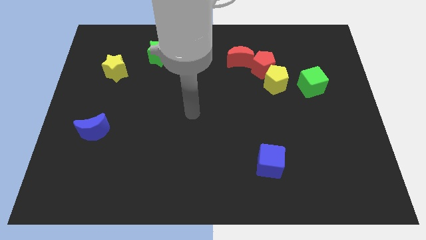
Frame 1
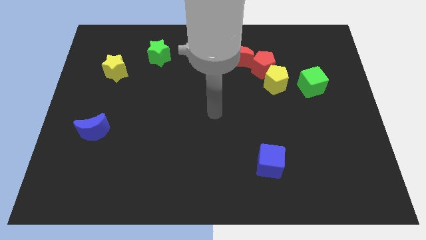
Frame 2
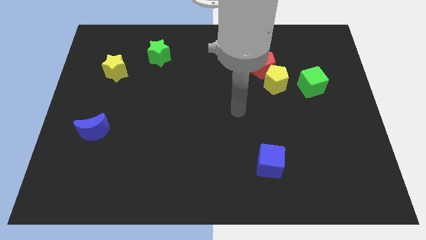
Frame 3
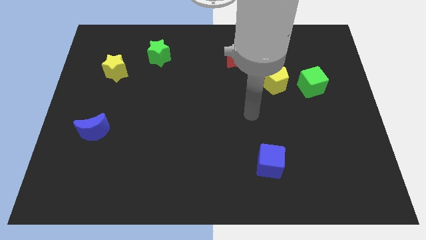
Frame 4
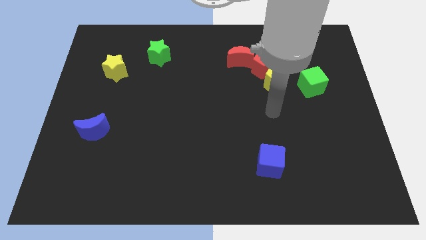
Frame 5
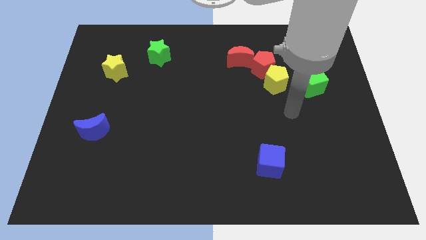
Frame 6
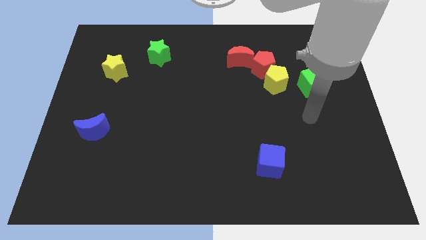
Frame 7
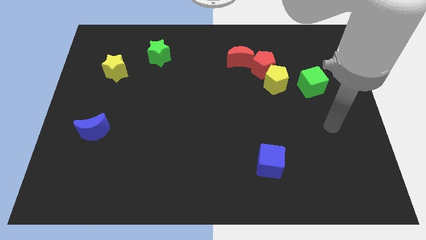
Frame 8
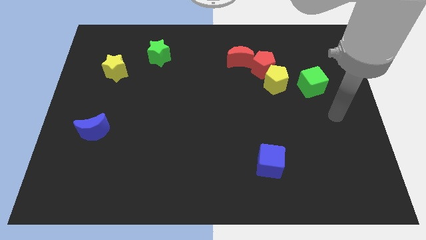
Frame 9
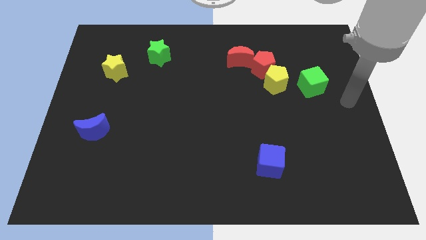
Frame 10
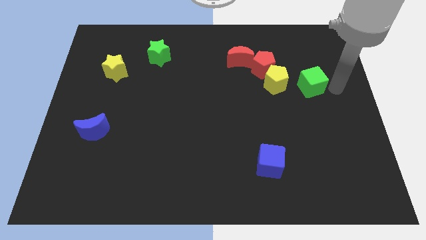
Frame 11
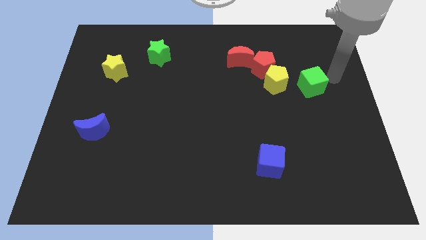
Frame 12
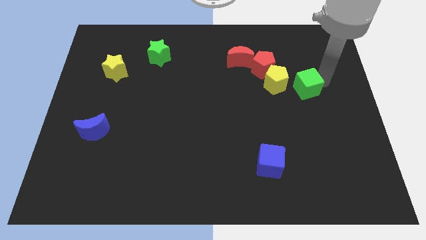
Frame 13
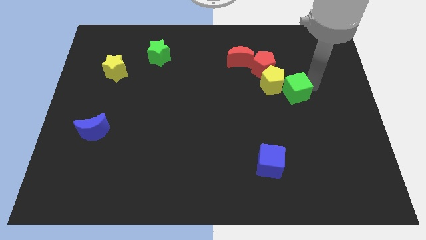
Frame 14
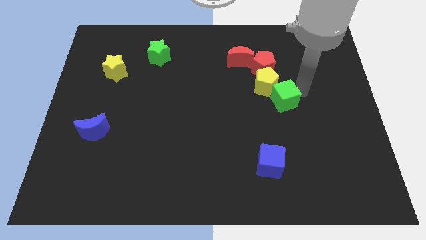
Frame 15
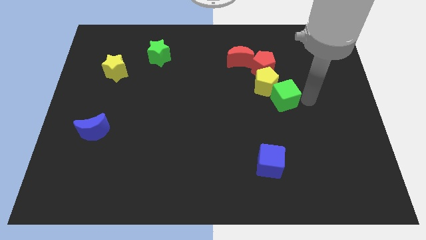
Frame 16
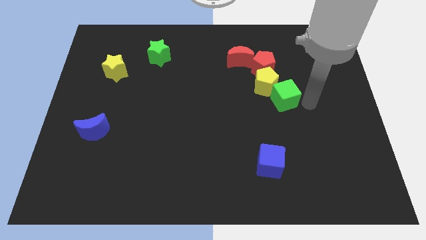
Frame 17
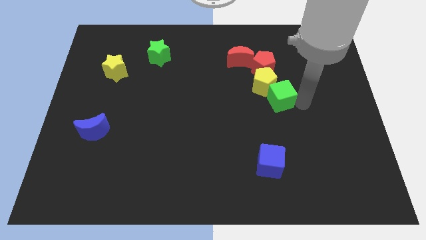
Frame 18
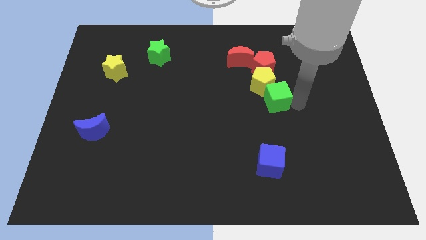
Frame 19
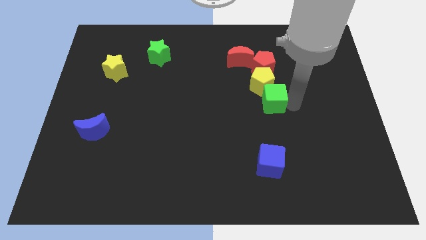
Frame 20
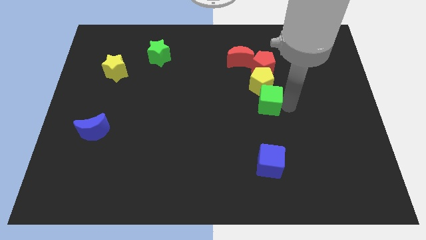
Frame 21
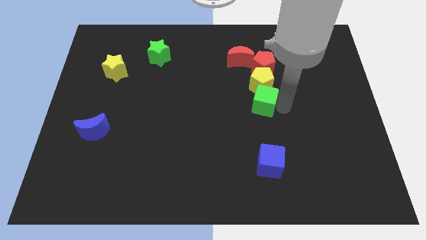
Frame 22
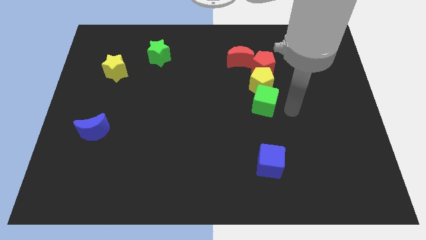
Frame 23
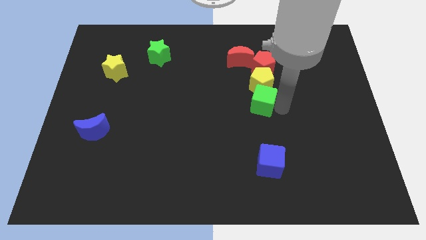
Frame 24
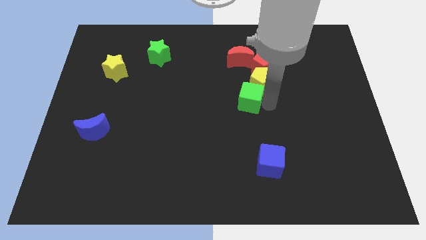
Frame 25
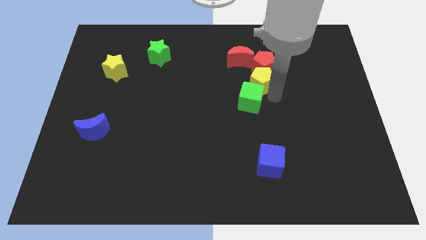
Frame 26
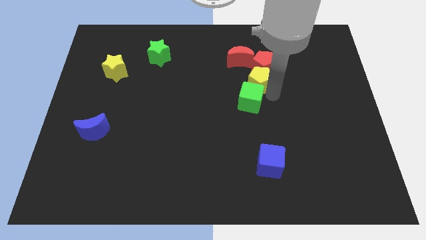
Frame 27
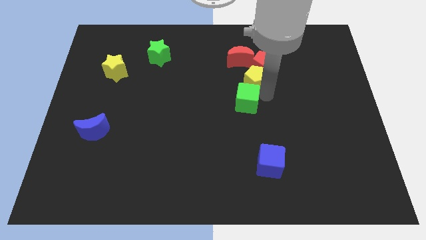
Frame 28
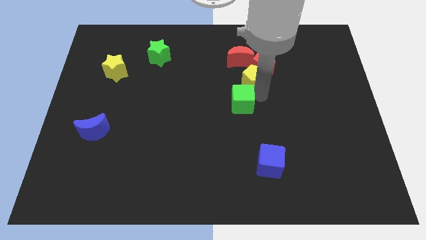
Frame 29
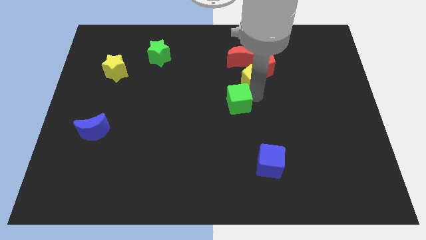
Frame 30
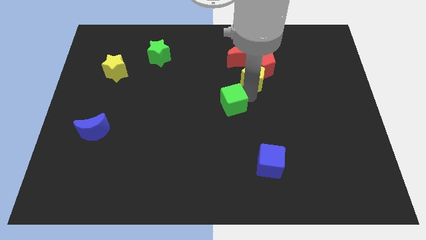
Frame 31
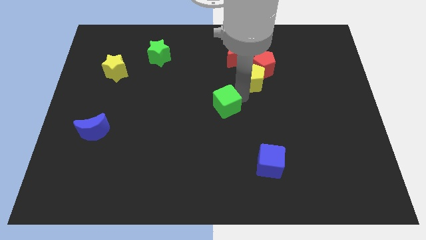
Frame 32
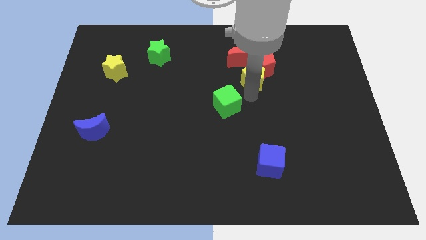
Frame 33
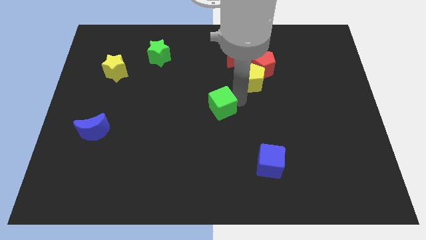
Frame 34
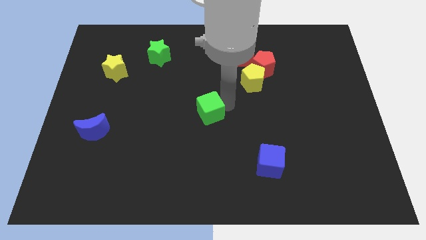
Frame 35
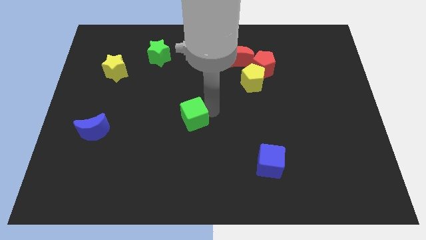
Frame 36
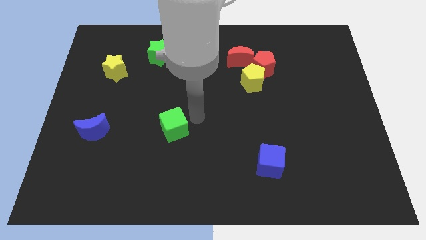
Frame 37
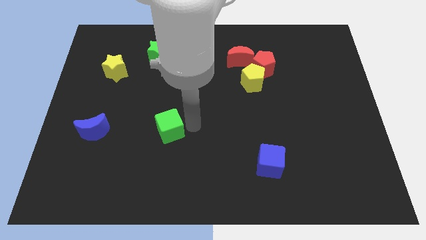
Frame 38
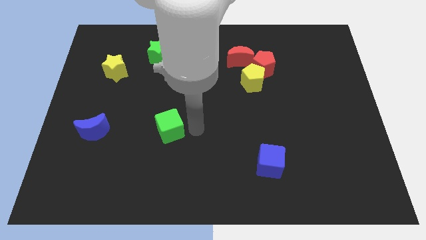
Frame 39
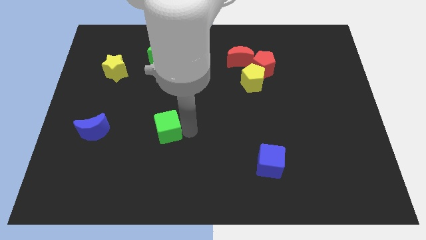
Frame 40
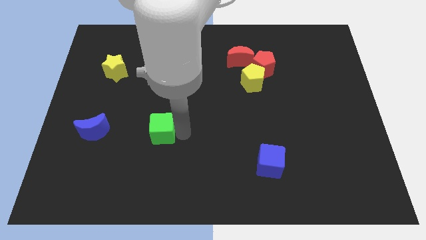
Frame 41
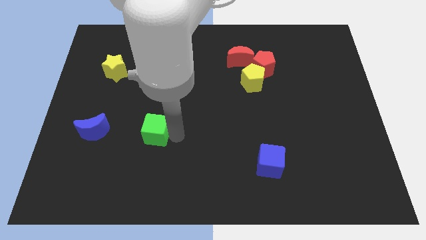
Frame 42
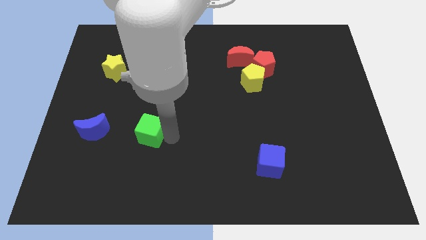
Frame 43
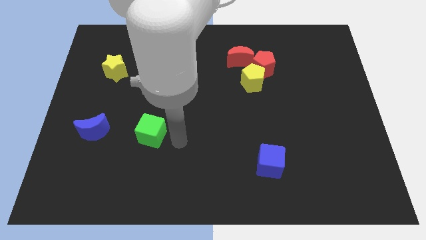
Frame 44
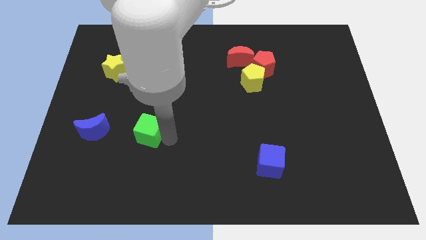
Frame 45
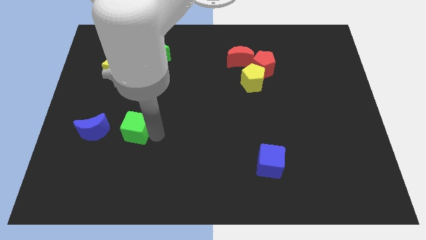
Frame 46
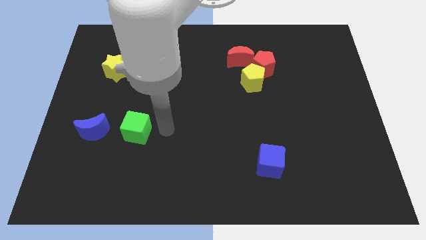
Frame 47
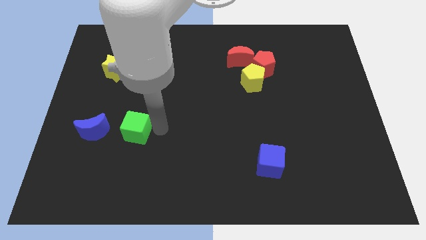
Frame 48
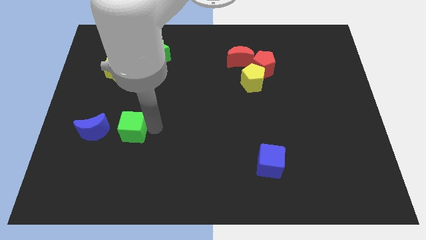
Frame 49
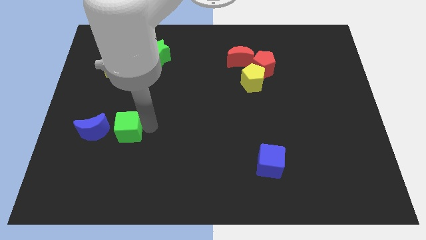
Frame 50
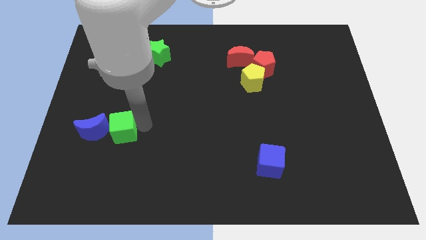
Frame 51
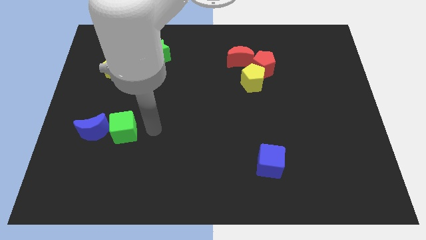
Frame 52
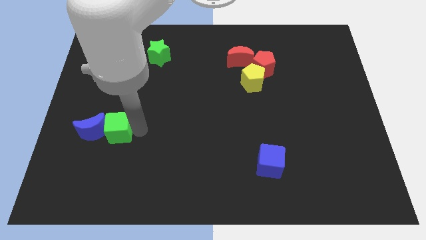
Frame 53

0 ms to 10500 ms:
put the green cube to the blue moon

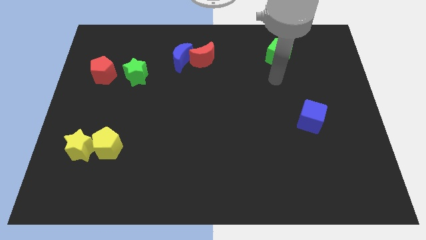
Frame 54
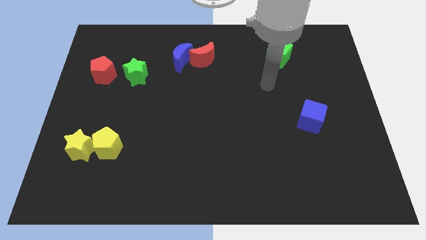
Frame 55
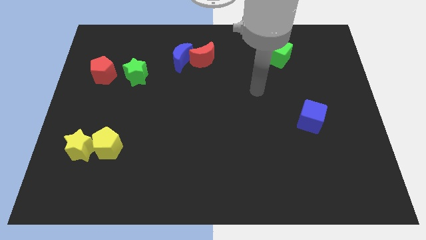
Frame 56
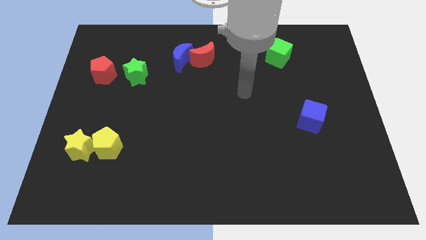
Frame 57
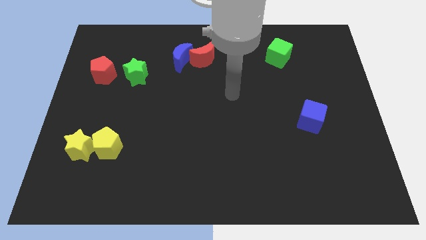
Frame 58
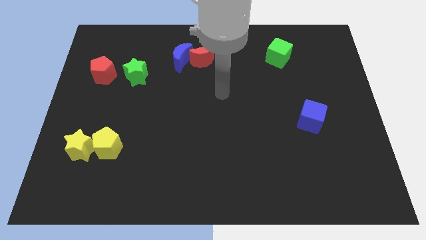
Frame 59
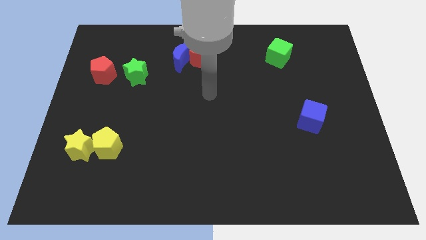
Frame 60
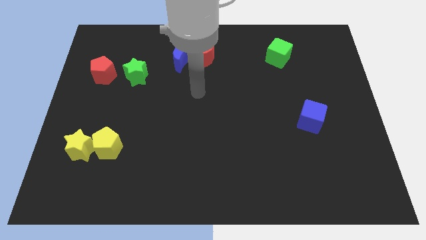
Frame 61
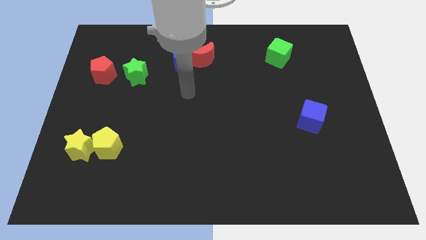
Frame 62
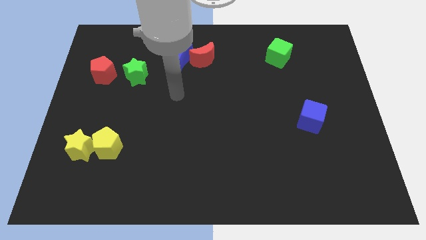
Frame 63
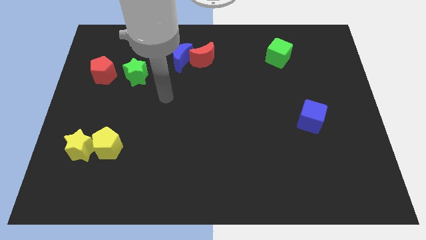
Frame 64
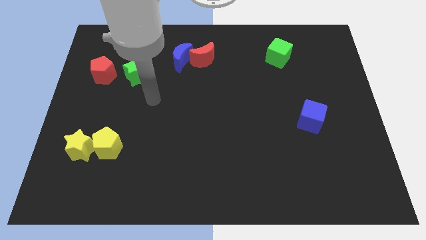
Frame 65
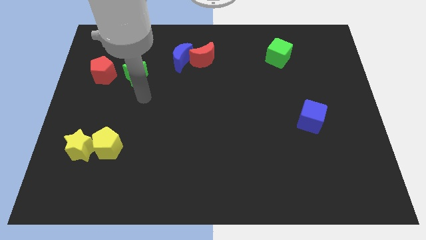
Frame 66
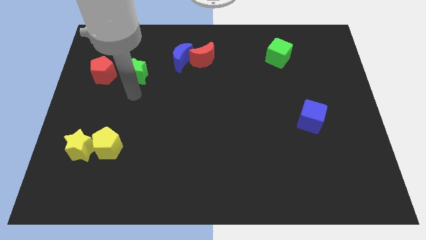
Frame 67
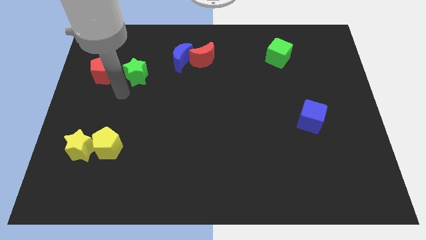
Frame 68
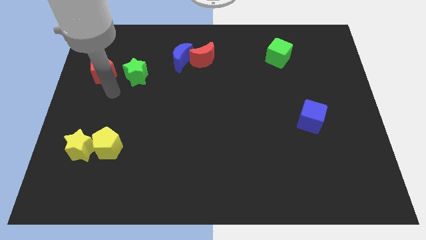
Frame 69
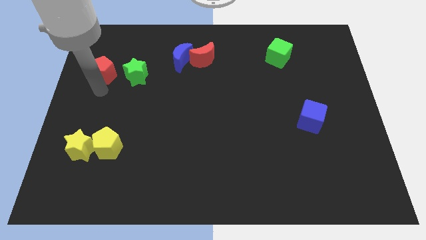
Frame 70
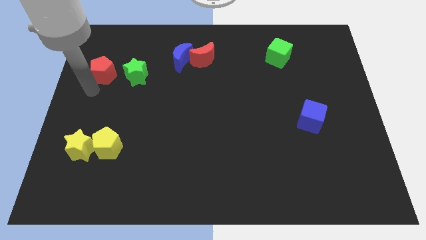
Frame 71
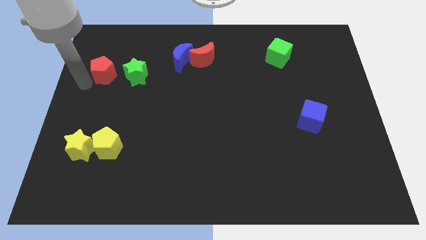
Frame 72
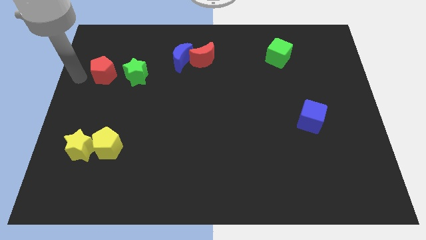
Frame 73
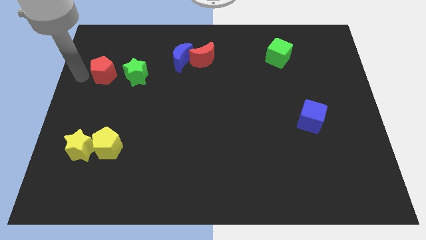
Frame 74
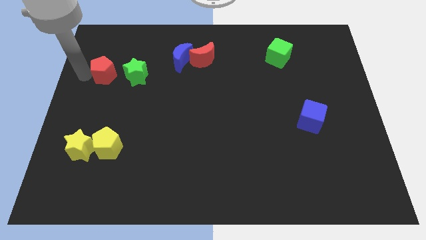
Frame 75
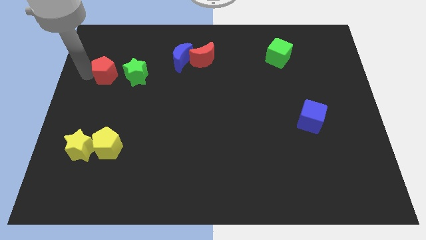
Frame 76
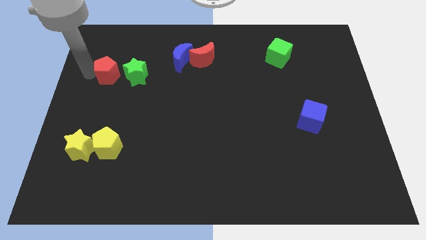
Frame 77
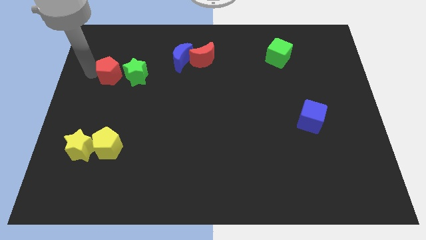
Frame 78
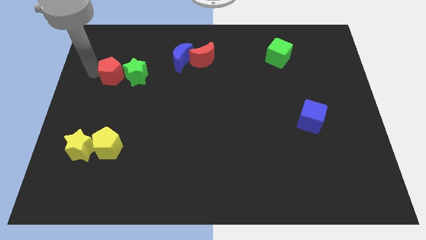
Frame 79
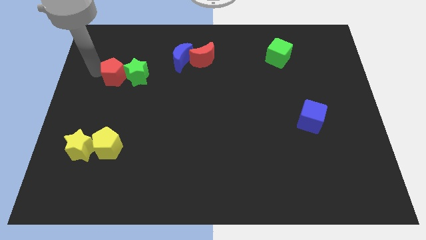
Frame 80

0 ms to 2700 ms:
move the red pentagon next to the green star
